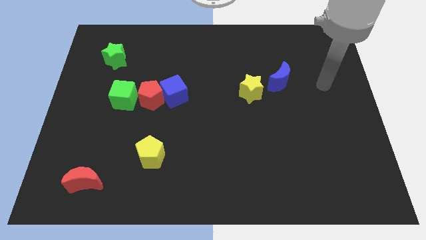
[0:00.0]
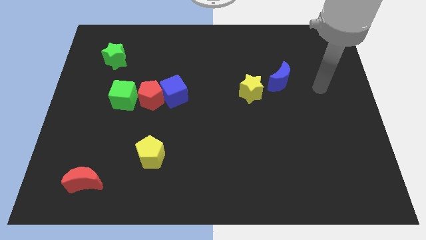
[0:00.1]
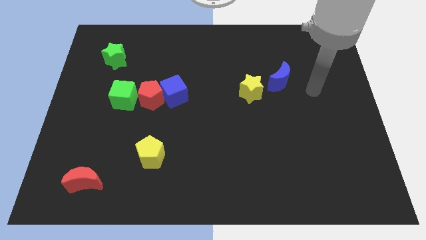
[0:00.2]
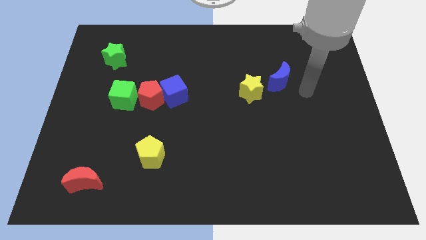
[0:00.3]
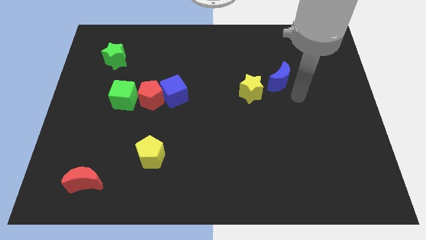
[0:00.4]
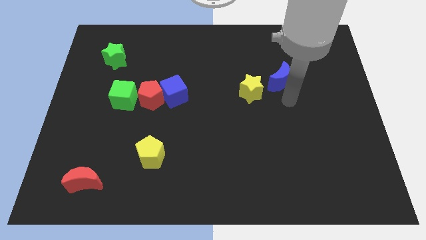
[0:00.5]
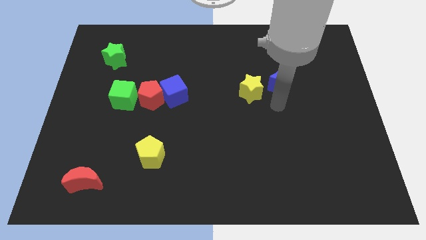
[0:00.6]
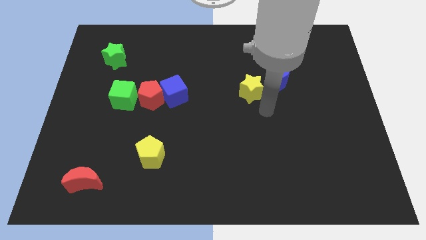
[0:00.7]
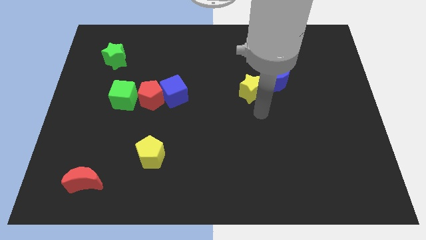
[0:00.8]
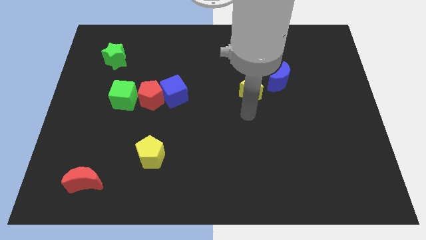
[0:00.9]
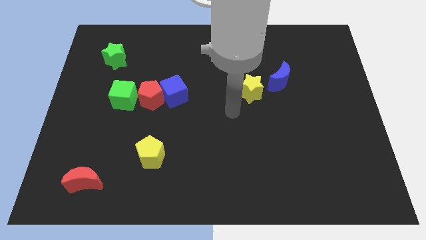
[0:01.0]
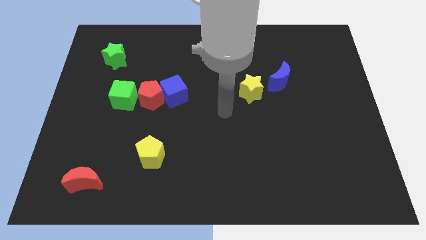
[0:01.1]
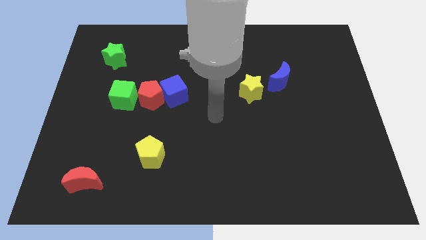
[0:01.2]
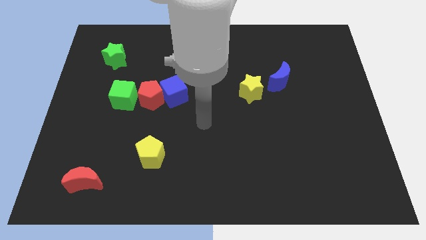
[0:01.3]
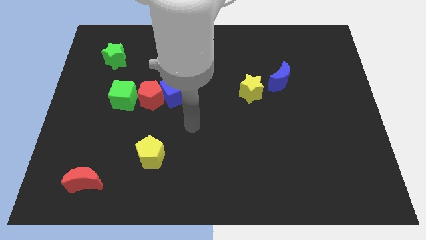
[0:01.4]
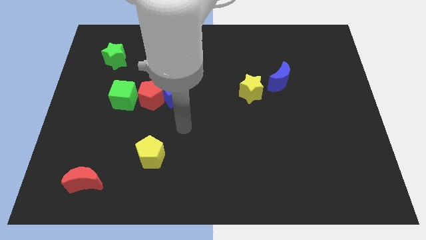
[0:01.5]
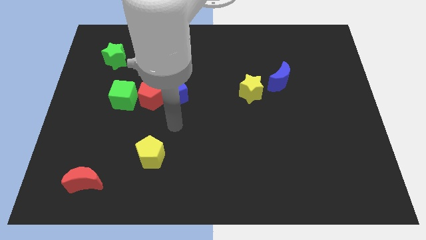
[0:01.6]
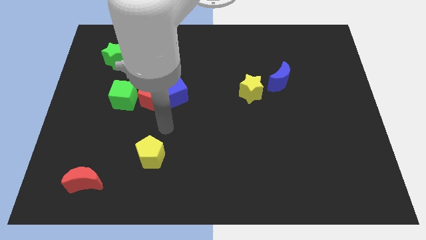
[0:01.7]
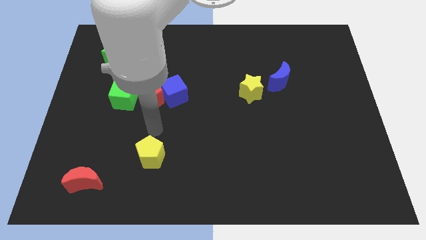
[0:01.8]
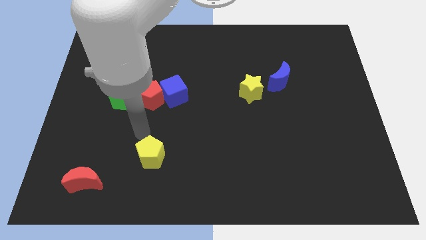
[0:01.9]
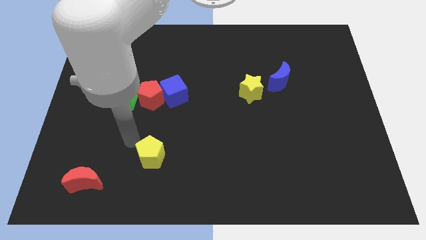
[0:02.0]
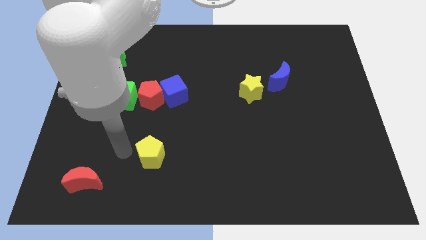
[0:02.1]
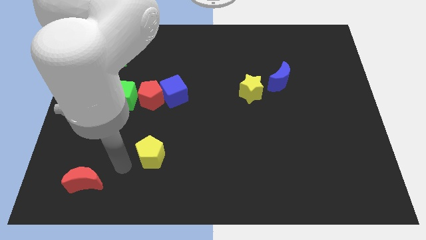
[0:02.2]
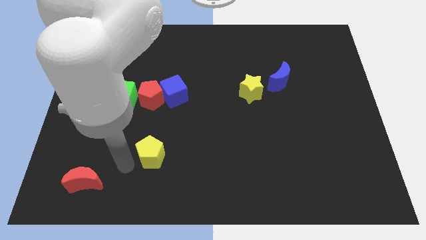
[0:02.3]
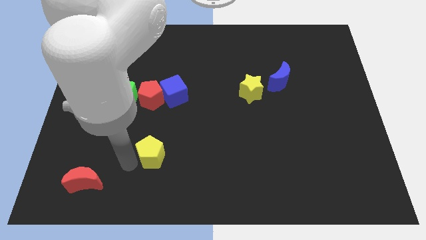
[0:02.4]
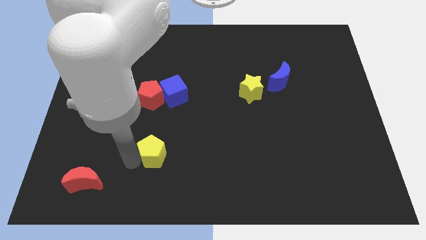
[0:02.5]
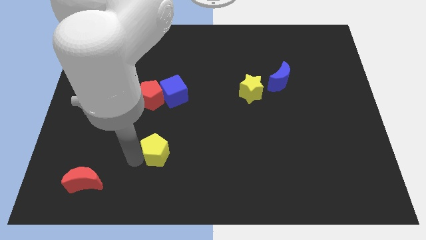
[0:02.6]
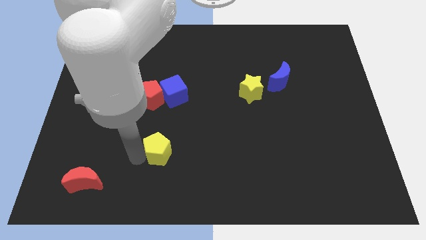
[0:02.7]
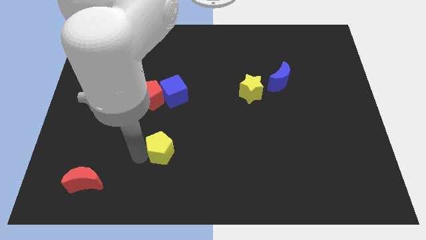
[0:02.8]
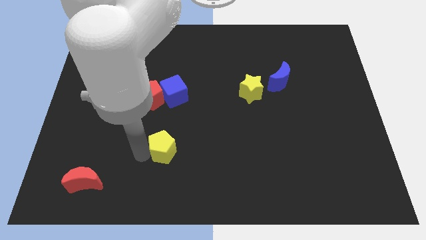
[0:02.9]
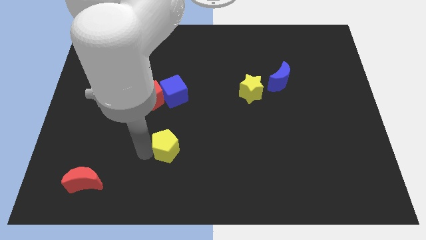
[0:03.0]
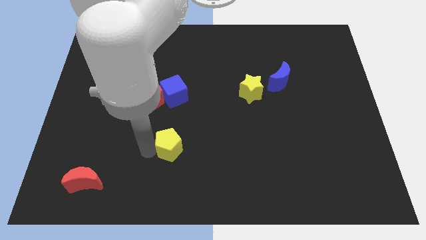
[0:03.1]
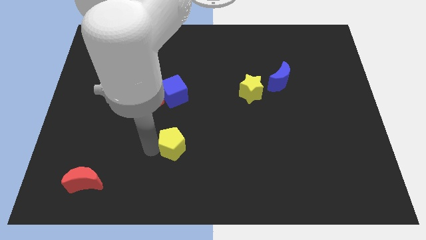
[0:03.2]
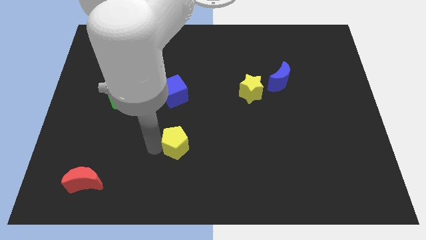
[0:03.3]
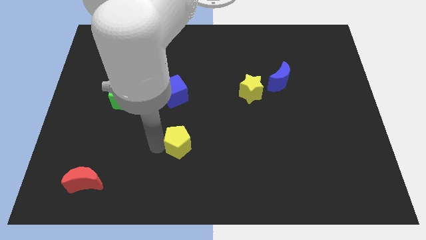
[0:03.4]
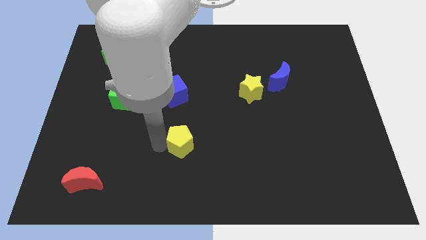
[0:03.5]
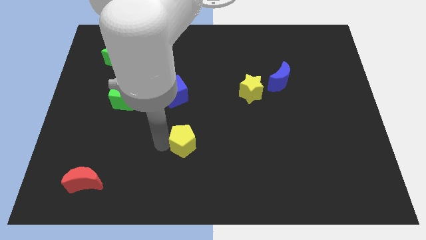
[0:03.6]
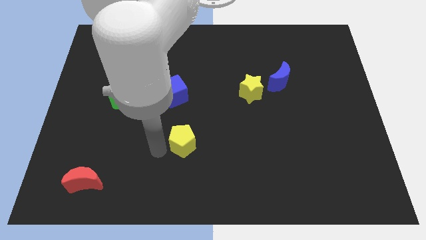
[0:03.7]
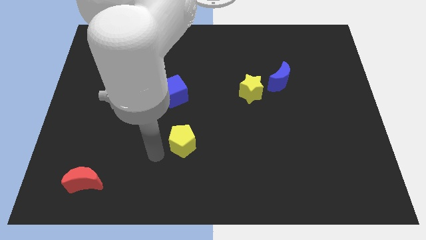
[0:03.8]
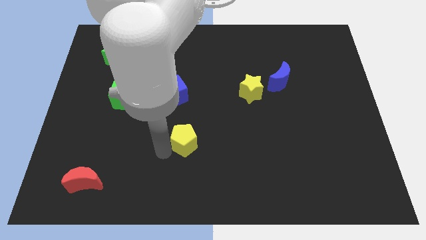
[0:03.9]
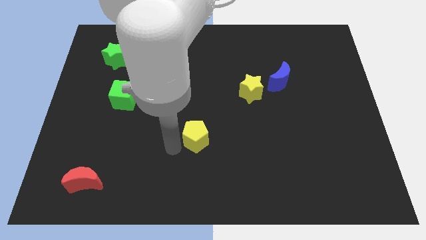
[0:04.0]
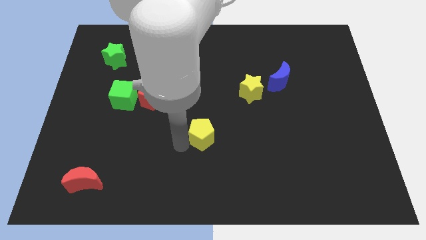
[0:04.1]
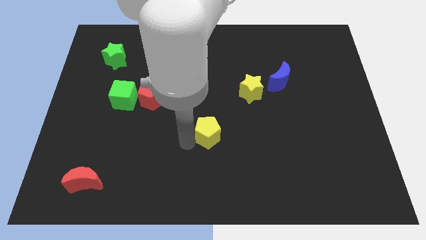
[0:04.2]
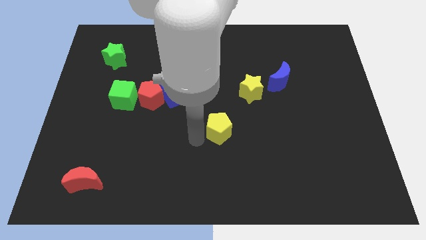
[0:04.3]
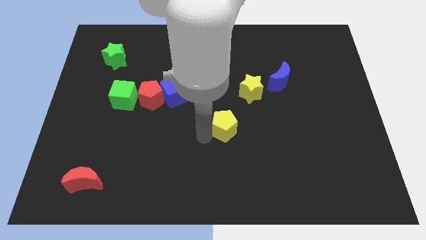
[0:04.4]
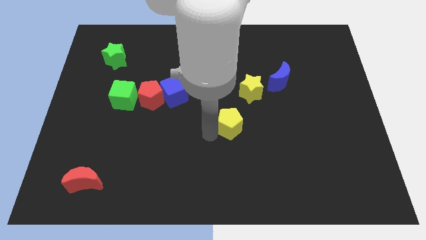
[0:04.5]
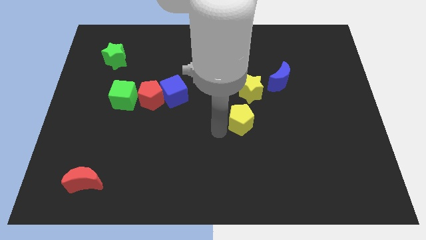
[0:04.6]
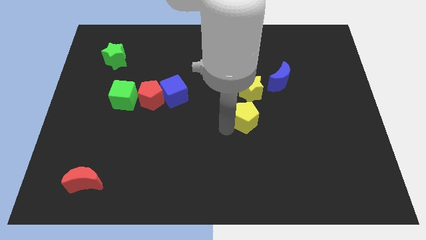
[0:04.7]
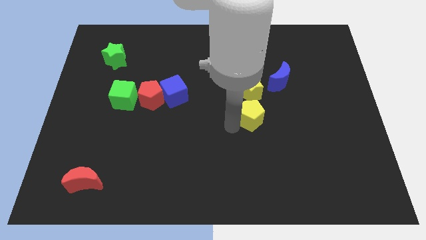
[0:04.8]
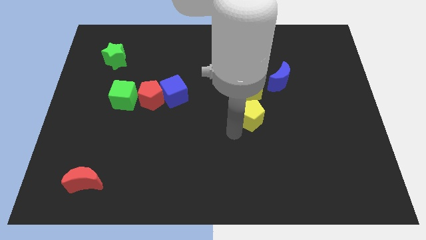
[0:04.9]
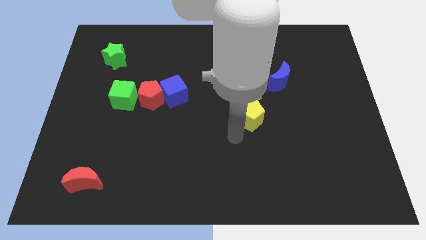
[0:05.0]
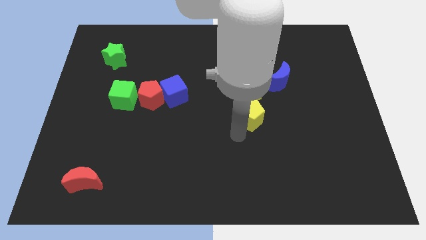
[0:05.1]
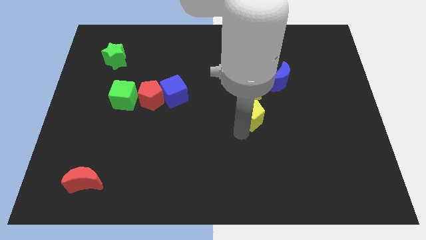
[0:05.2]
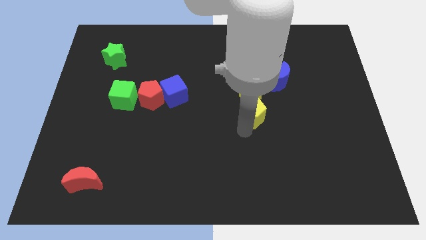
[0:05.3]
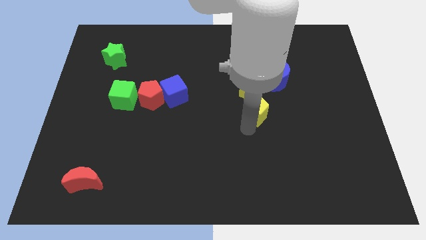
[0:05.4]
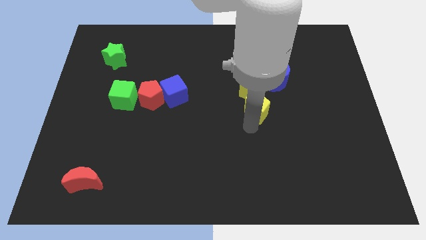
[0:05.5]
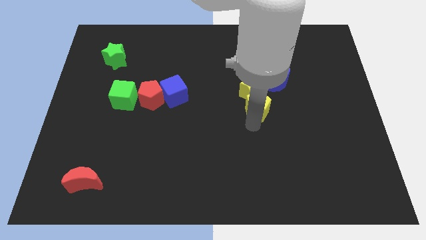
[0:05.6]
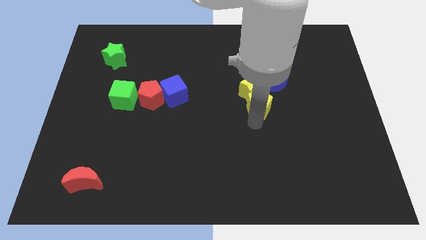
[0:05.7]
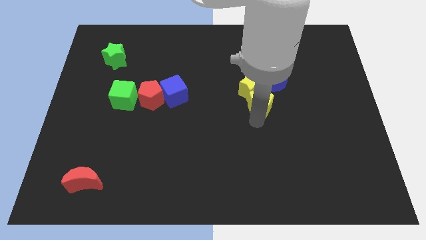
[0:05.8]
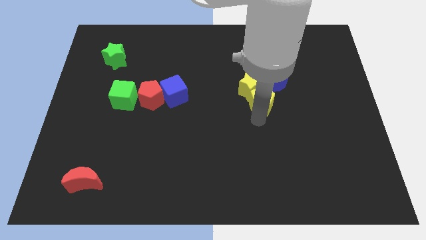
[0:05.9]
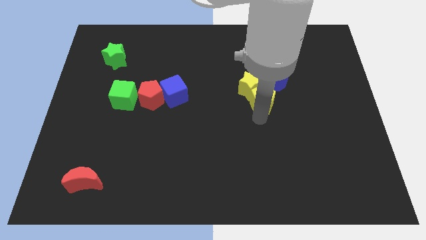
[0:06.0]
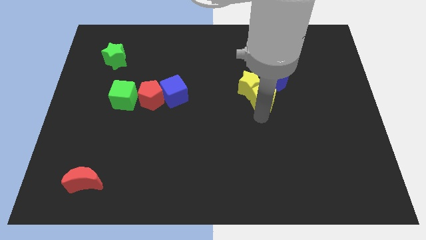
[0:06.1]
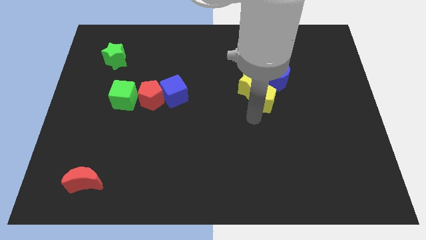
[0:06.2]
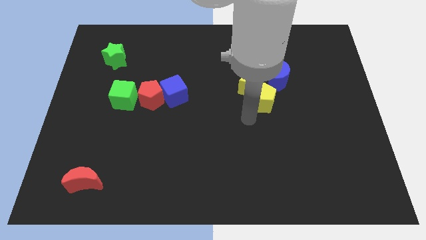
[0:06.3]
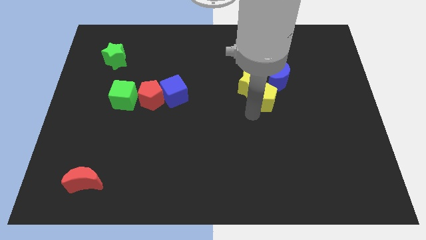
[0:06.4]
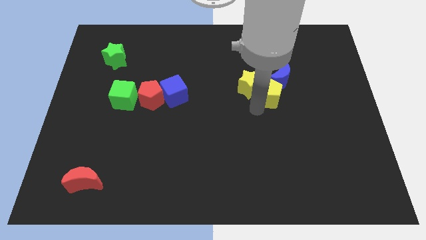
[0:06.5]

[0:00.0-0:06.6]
put the yellow pentagon towards the blue moon
